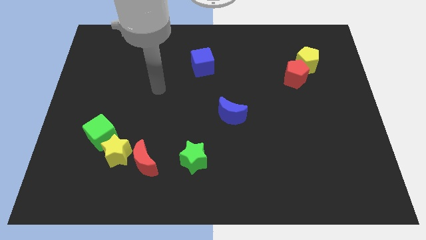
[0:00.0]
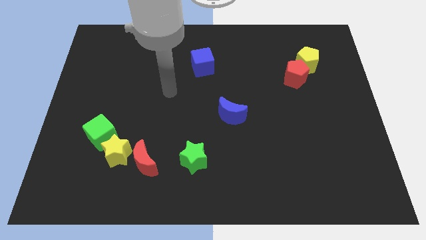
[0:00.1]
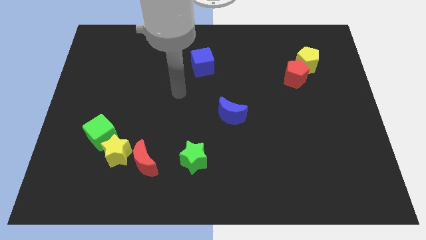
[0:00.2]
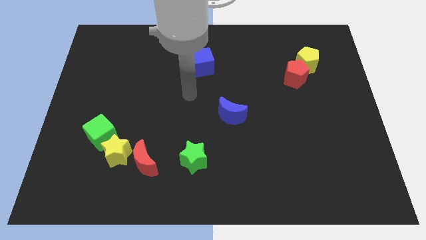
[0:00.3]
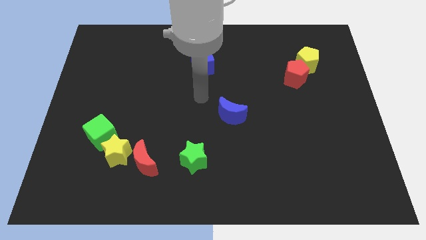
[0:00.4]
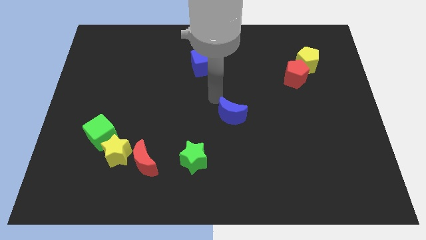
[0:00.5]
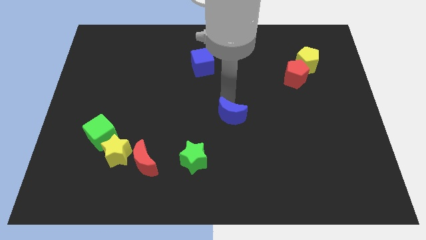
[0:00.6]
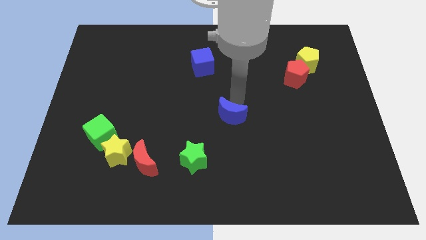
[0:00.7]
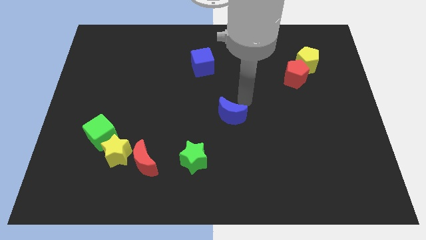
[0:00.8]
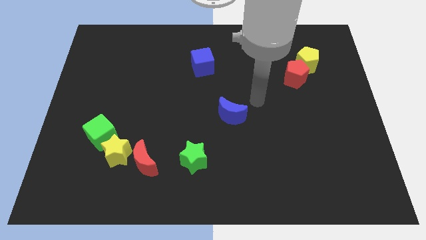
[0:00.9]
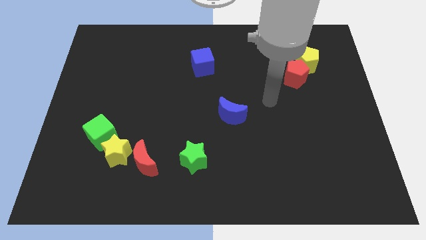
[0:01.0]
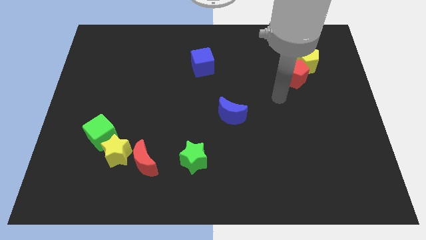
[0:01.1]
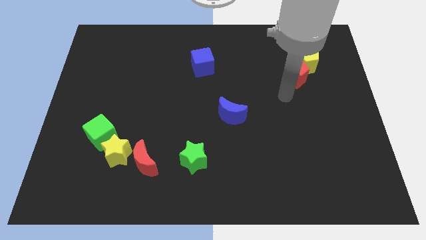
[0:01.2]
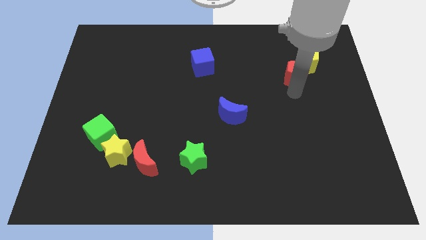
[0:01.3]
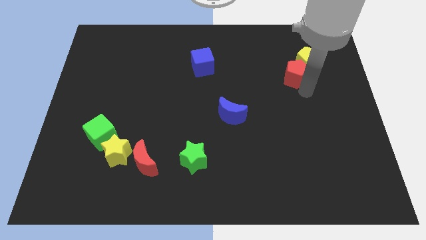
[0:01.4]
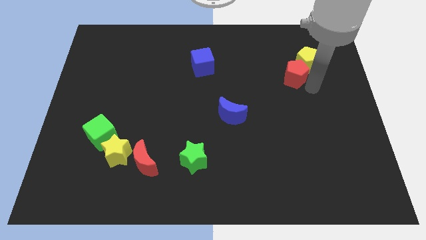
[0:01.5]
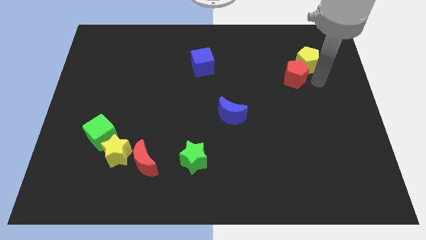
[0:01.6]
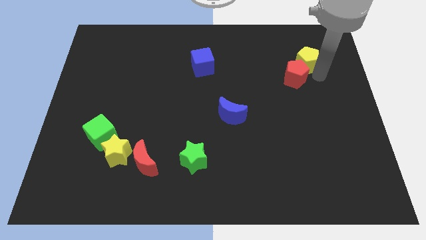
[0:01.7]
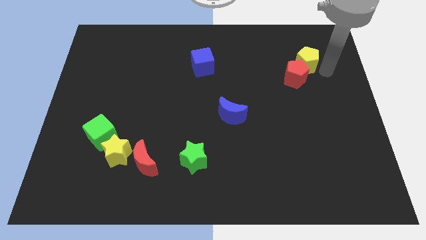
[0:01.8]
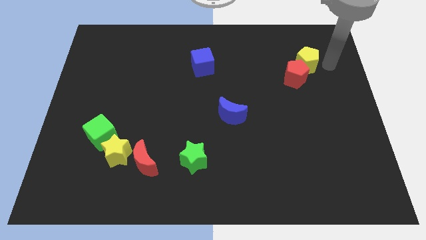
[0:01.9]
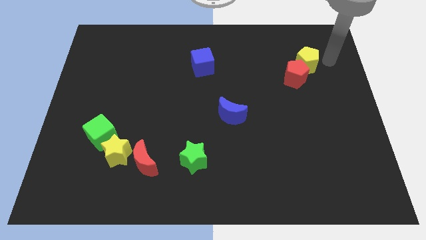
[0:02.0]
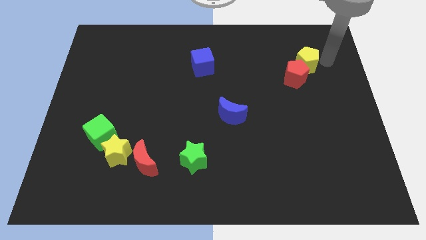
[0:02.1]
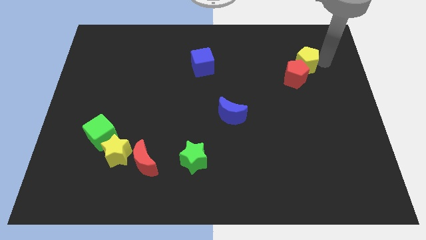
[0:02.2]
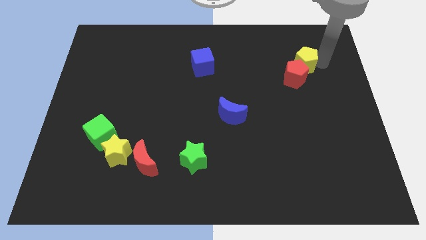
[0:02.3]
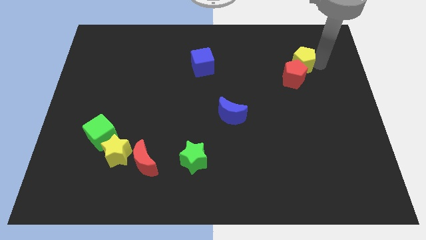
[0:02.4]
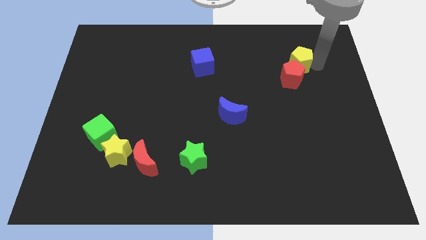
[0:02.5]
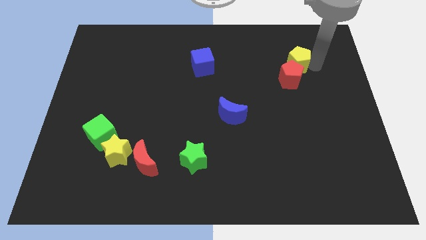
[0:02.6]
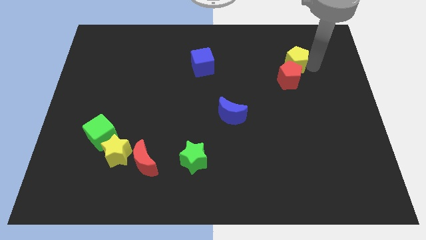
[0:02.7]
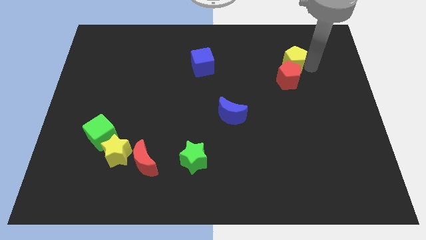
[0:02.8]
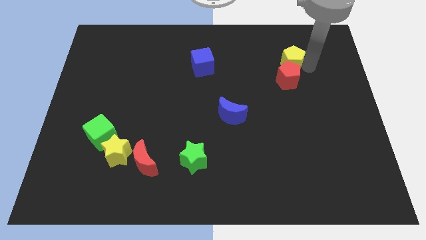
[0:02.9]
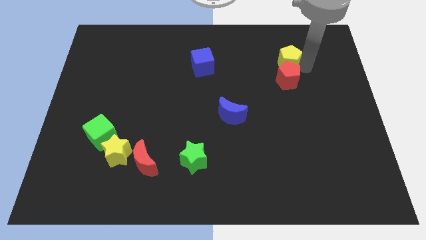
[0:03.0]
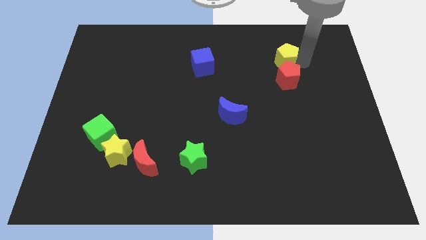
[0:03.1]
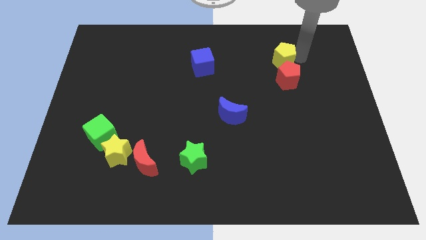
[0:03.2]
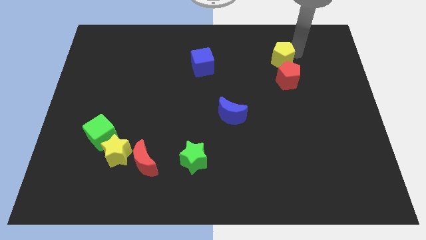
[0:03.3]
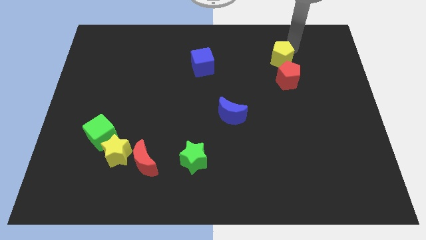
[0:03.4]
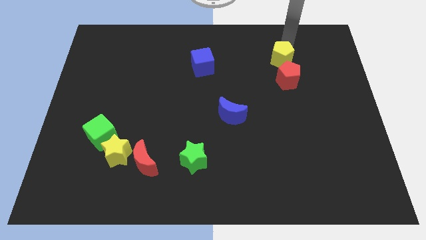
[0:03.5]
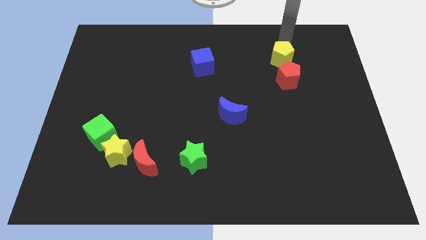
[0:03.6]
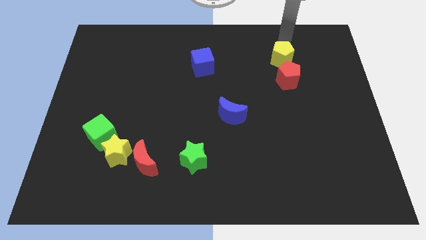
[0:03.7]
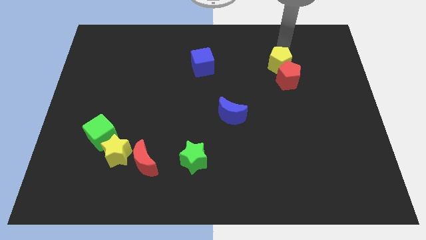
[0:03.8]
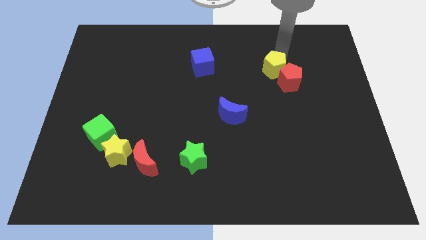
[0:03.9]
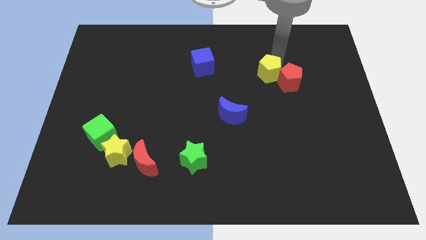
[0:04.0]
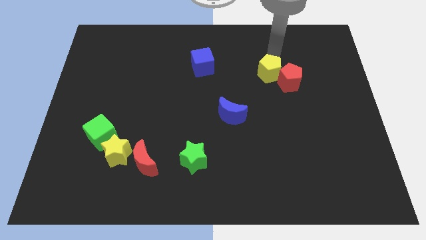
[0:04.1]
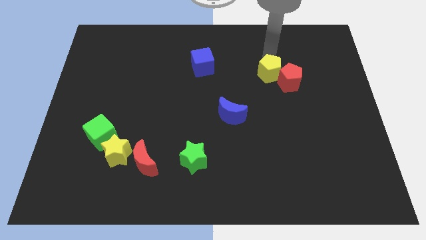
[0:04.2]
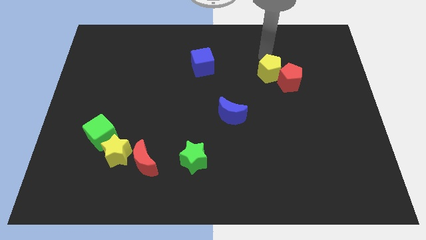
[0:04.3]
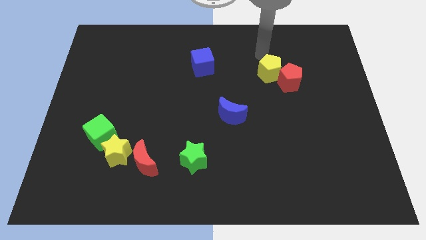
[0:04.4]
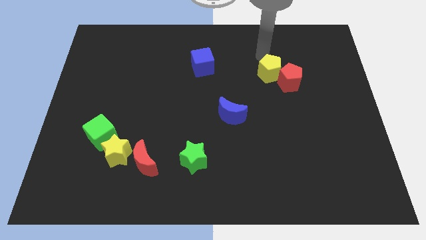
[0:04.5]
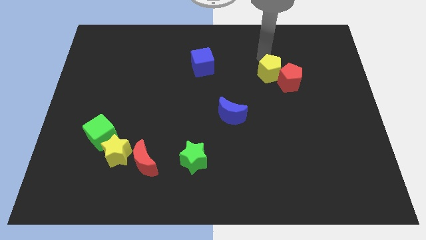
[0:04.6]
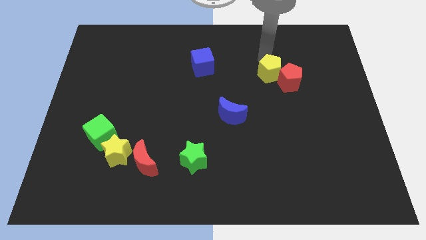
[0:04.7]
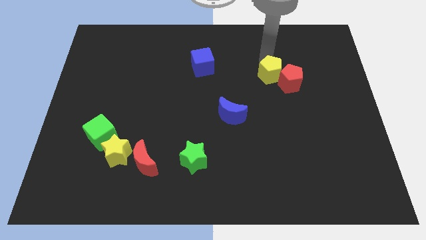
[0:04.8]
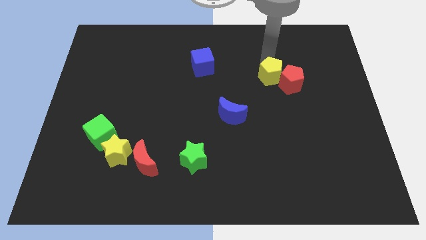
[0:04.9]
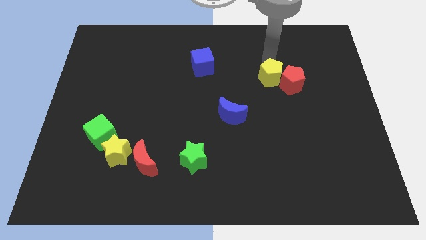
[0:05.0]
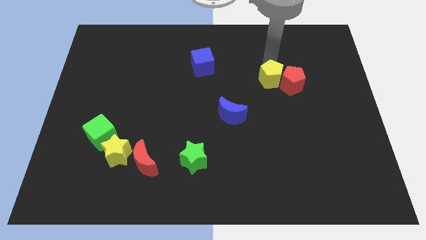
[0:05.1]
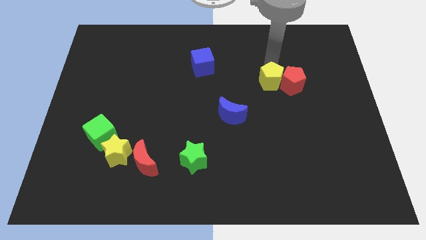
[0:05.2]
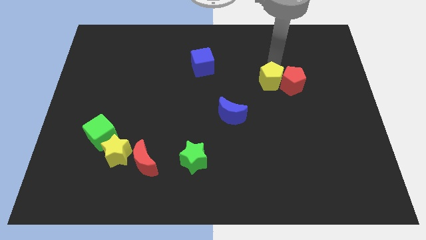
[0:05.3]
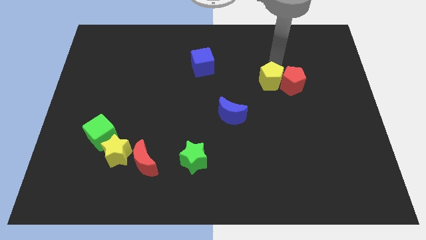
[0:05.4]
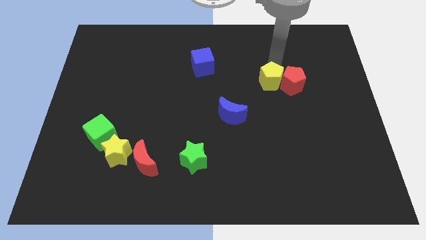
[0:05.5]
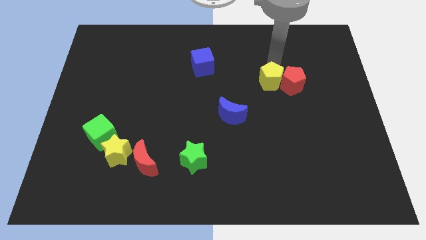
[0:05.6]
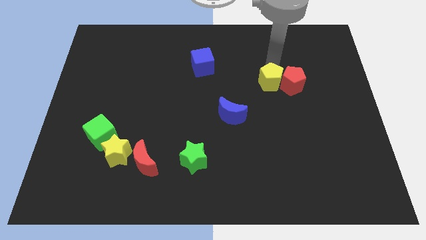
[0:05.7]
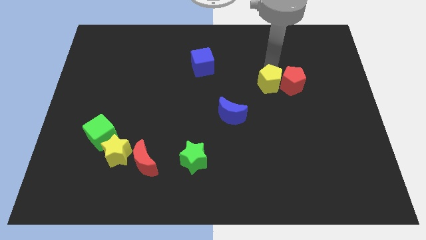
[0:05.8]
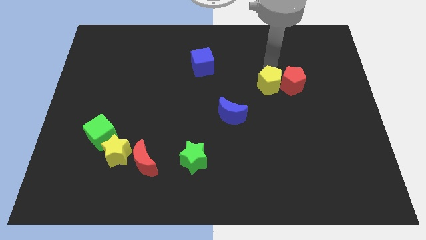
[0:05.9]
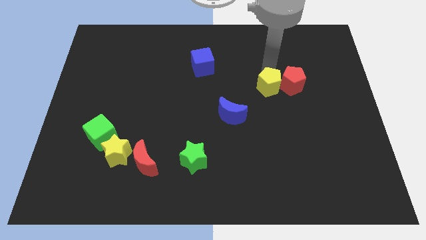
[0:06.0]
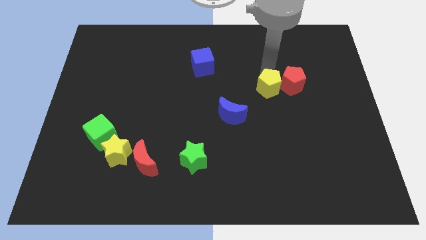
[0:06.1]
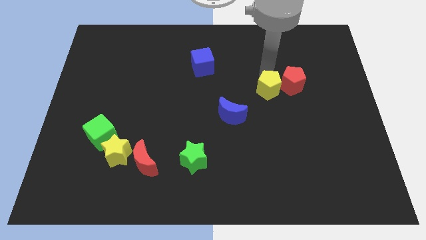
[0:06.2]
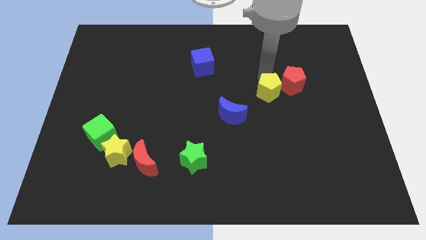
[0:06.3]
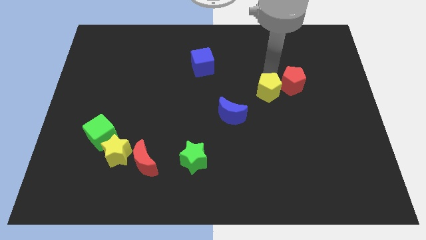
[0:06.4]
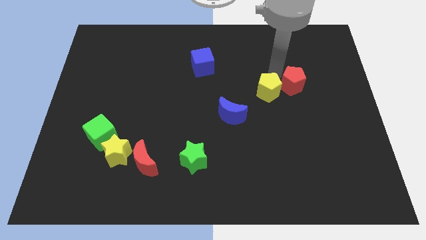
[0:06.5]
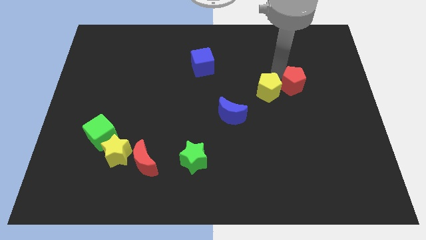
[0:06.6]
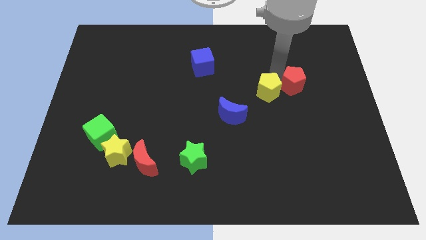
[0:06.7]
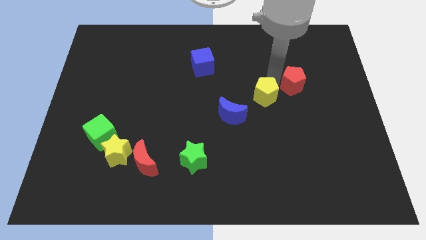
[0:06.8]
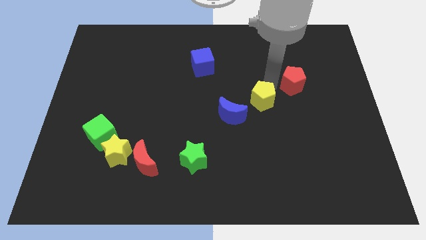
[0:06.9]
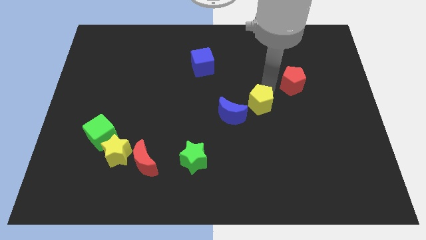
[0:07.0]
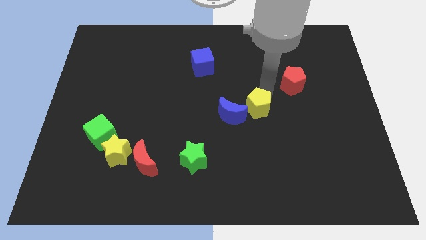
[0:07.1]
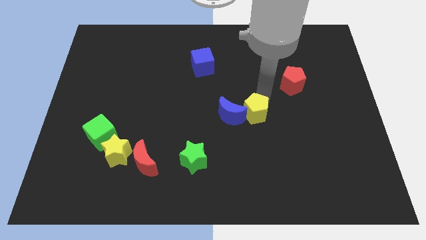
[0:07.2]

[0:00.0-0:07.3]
move the yellow pentagon downwards and left

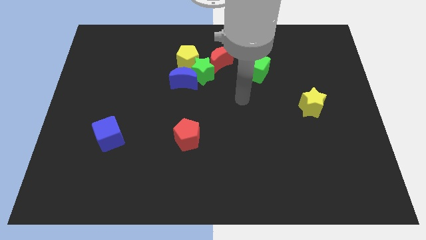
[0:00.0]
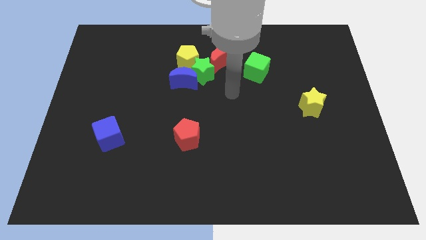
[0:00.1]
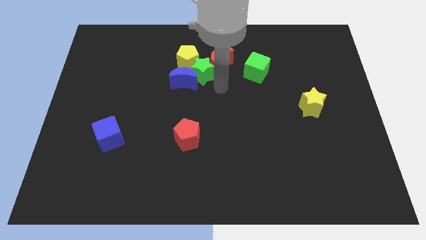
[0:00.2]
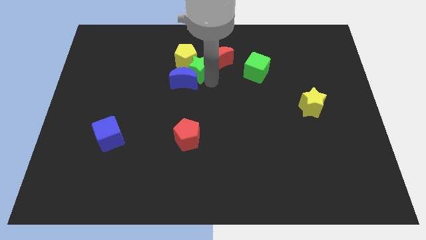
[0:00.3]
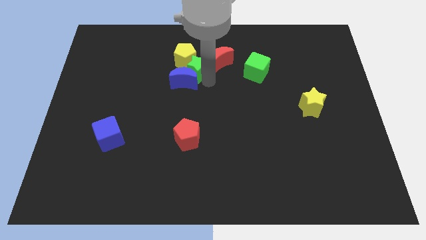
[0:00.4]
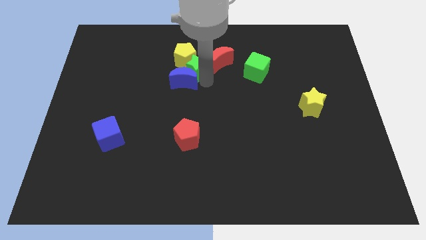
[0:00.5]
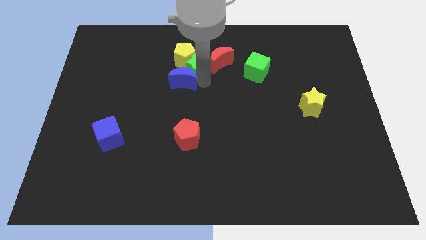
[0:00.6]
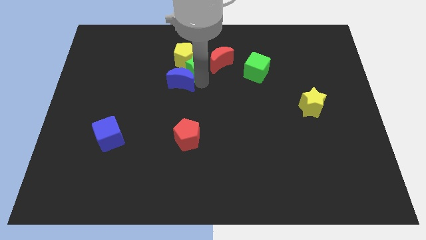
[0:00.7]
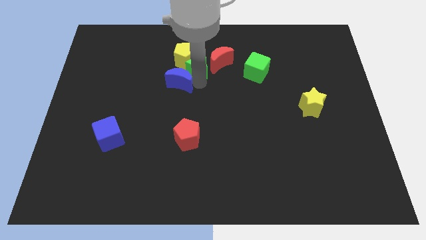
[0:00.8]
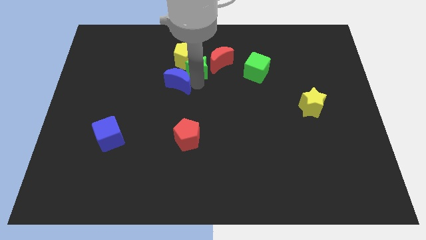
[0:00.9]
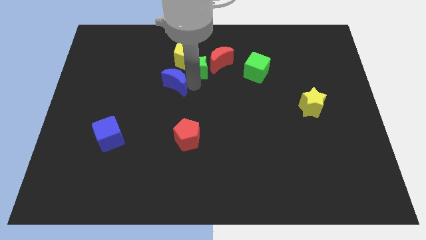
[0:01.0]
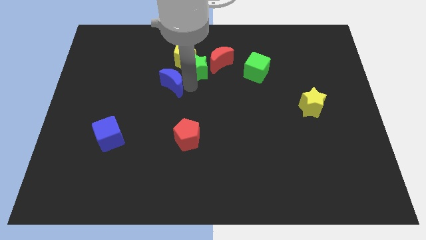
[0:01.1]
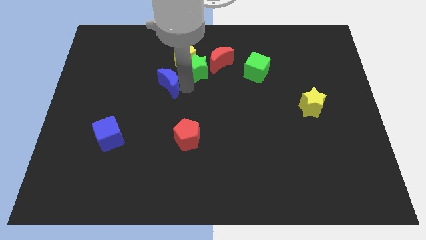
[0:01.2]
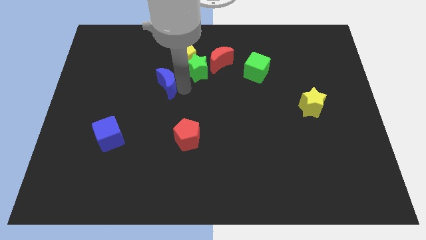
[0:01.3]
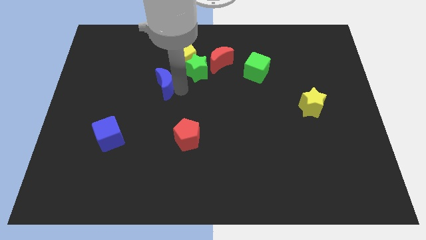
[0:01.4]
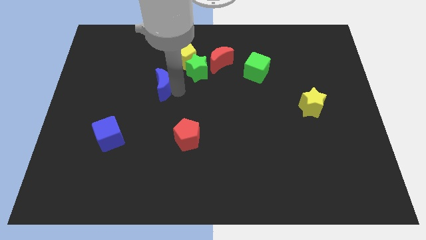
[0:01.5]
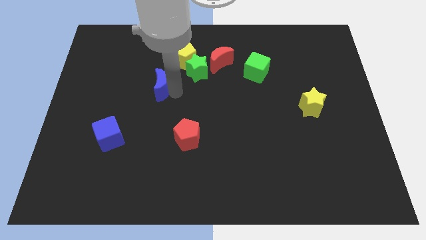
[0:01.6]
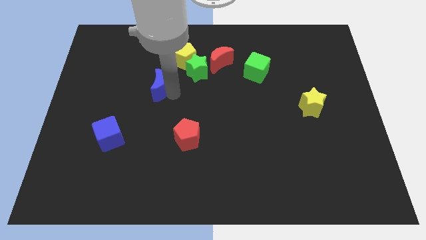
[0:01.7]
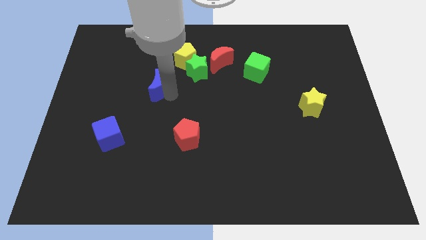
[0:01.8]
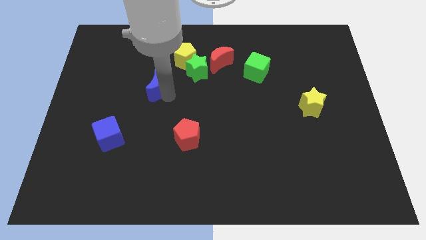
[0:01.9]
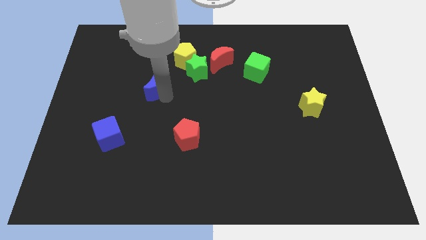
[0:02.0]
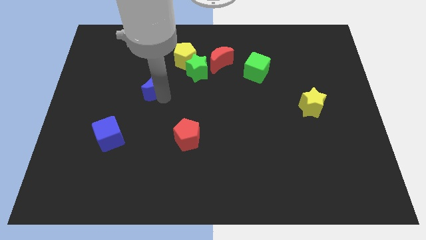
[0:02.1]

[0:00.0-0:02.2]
slightly slide the blue moon left
